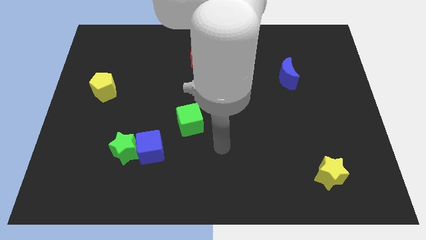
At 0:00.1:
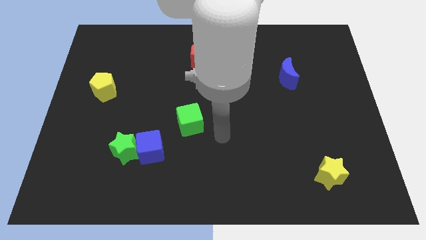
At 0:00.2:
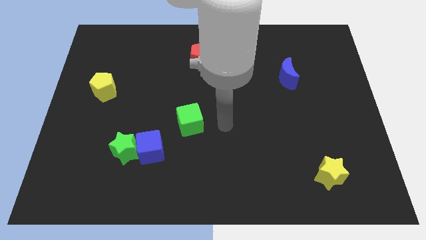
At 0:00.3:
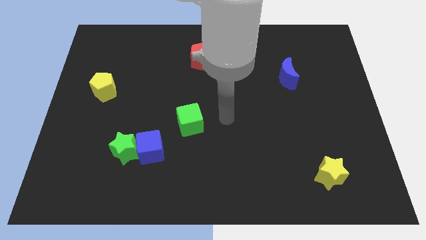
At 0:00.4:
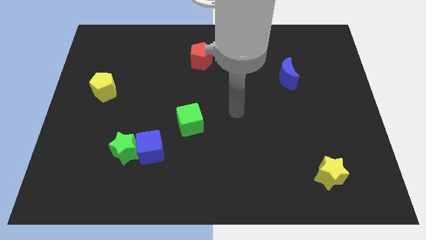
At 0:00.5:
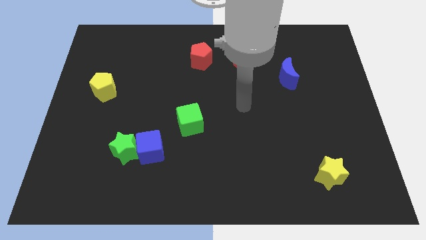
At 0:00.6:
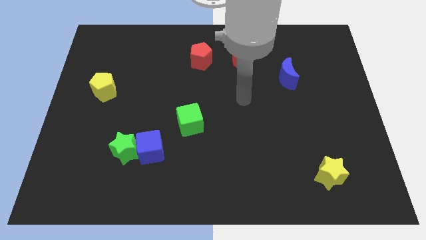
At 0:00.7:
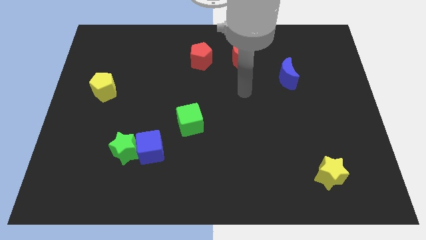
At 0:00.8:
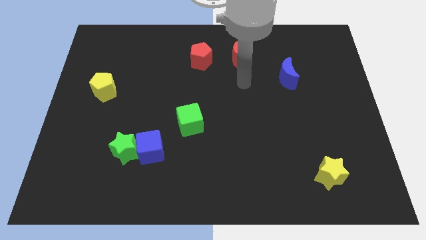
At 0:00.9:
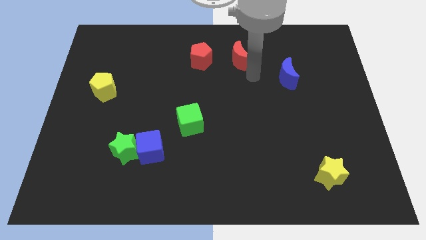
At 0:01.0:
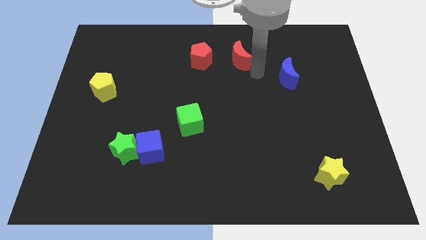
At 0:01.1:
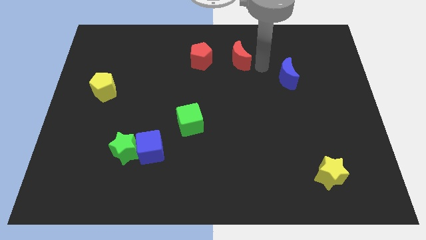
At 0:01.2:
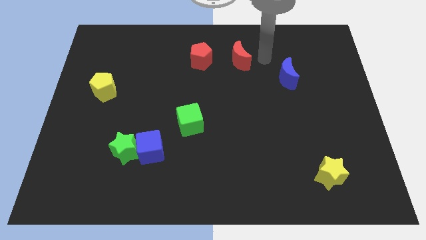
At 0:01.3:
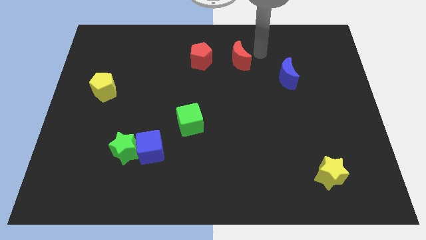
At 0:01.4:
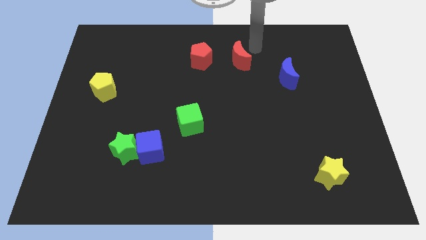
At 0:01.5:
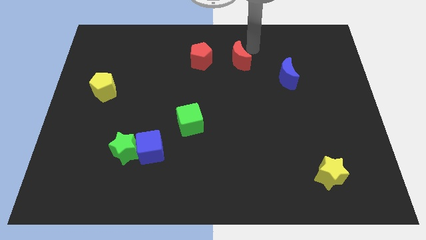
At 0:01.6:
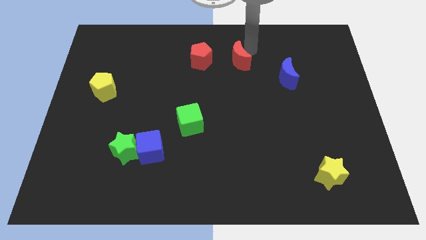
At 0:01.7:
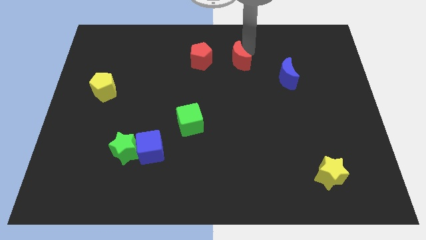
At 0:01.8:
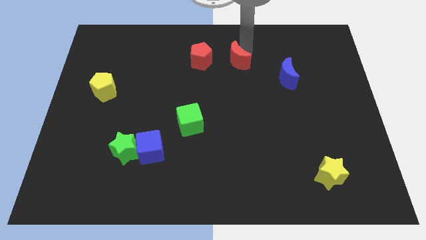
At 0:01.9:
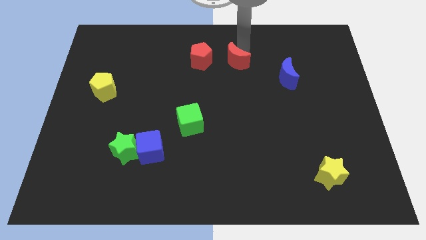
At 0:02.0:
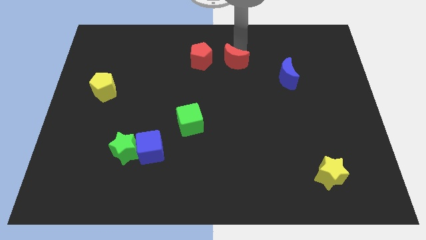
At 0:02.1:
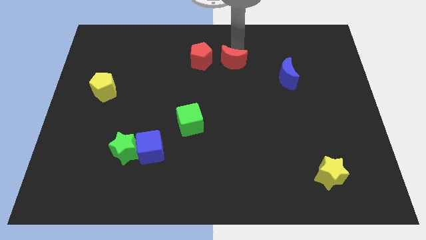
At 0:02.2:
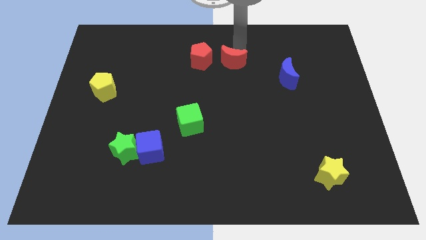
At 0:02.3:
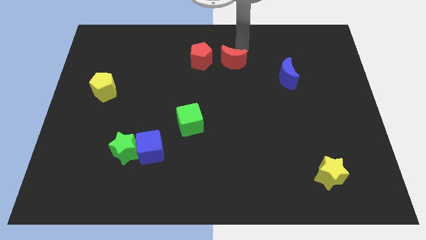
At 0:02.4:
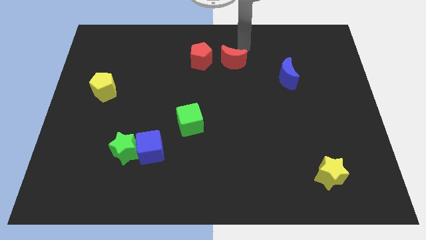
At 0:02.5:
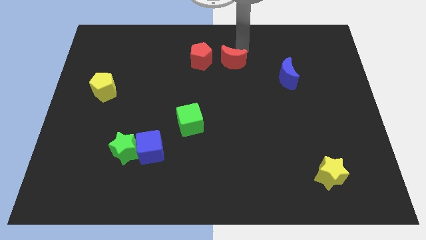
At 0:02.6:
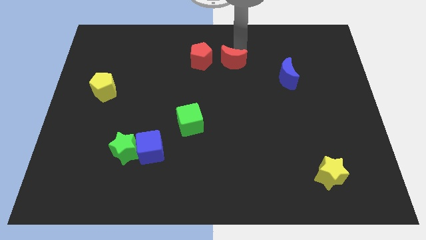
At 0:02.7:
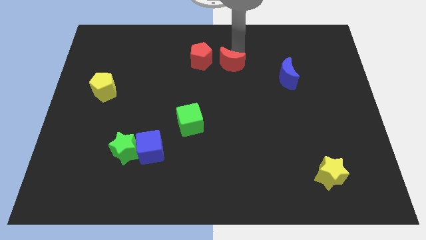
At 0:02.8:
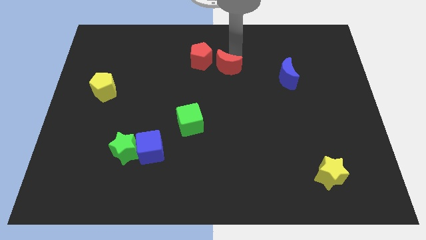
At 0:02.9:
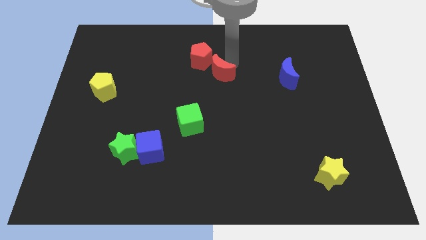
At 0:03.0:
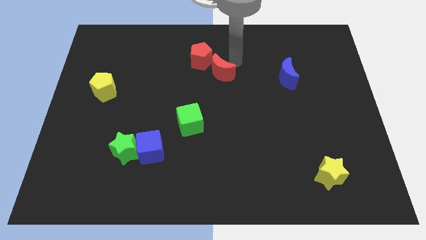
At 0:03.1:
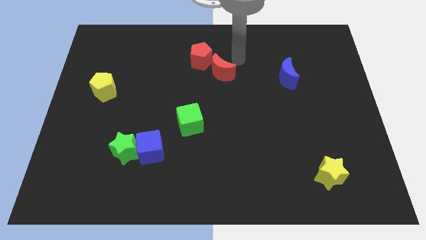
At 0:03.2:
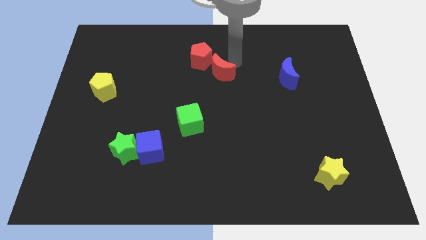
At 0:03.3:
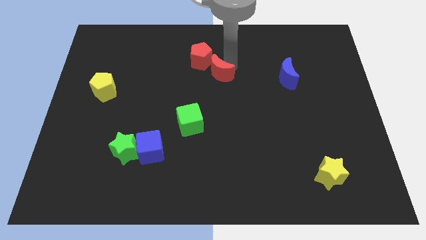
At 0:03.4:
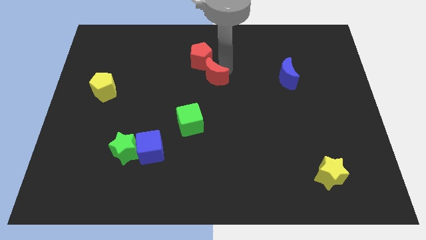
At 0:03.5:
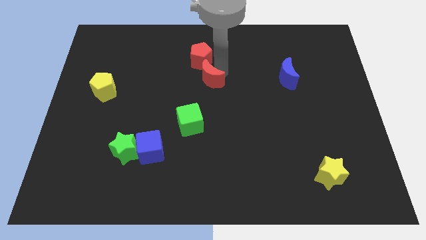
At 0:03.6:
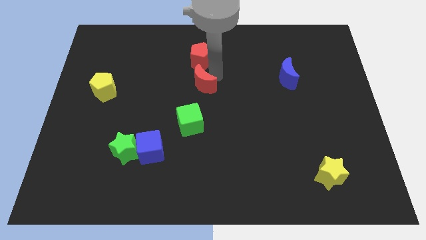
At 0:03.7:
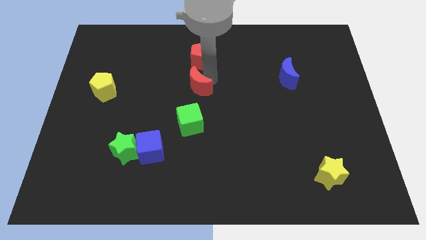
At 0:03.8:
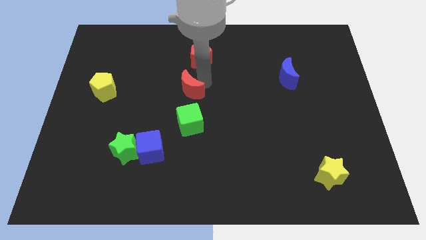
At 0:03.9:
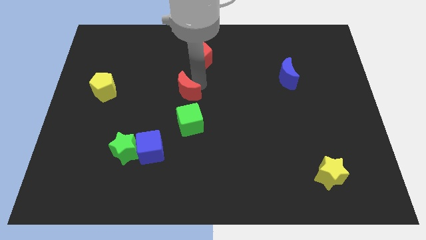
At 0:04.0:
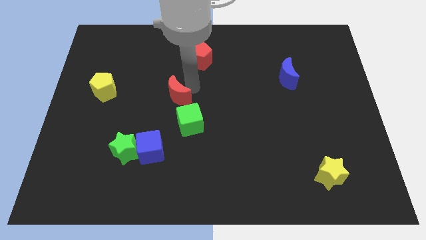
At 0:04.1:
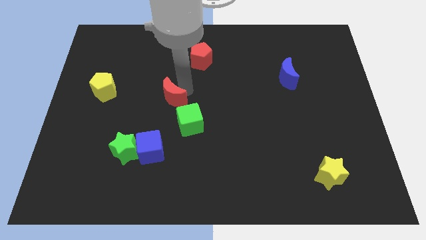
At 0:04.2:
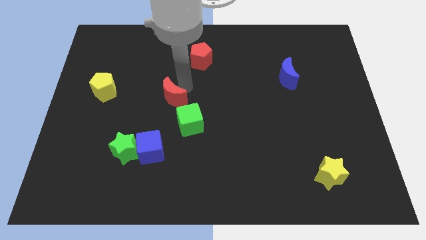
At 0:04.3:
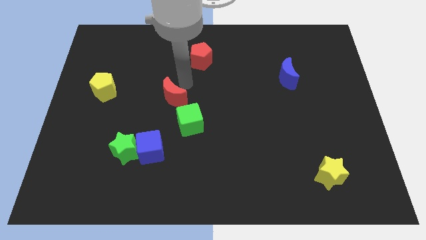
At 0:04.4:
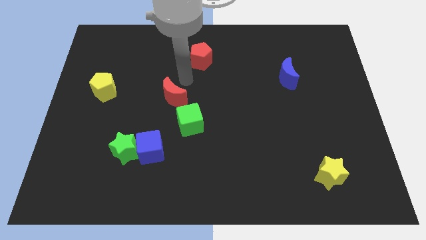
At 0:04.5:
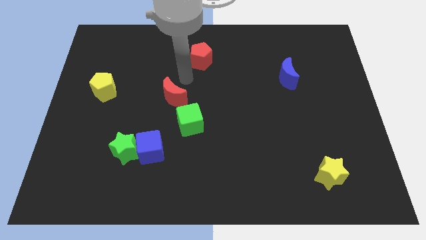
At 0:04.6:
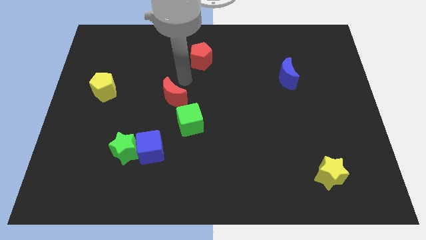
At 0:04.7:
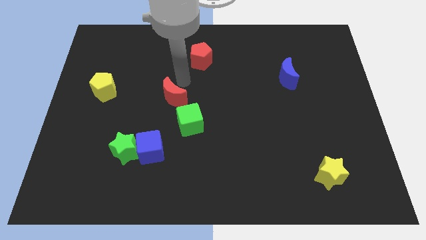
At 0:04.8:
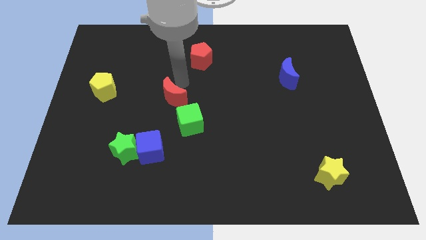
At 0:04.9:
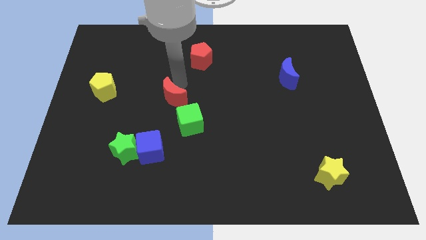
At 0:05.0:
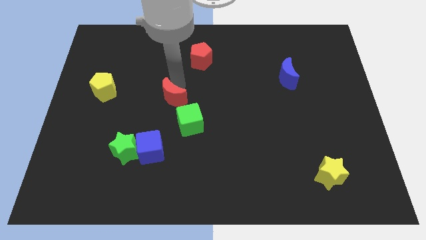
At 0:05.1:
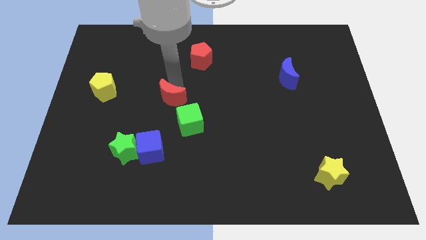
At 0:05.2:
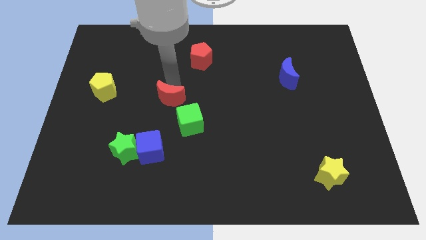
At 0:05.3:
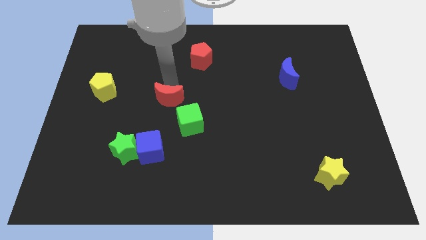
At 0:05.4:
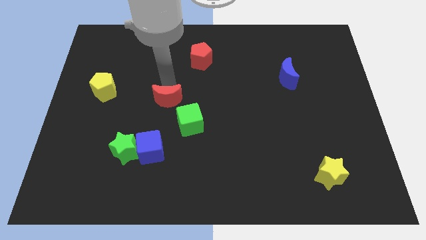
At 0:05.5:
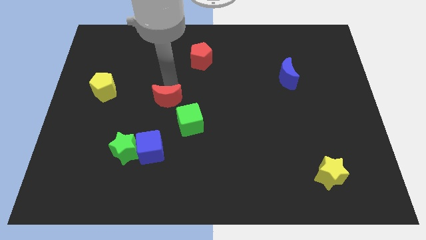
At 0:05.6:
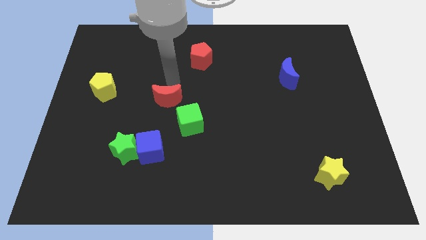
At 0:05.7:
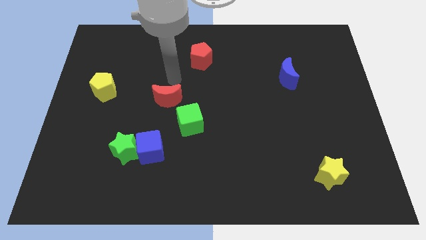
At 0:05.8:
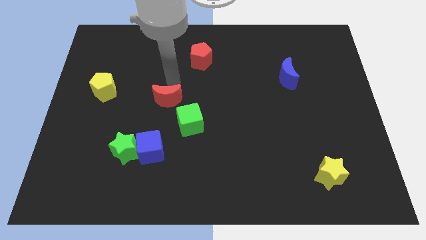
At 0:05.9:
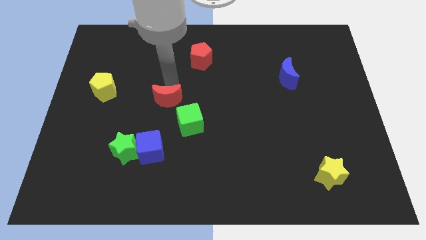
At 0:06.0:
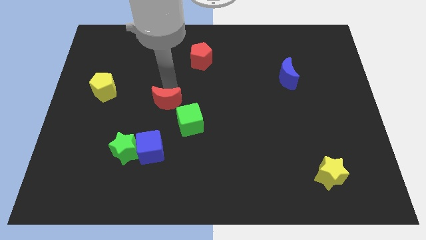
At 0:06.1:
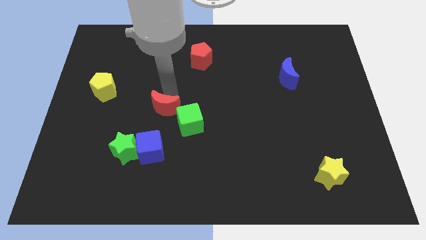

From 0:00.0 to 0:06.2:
move the red moon left of the green cube

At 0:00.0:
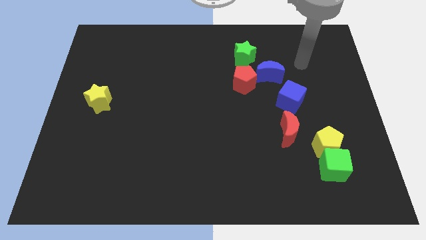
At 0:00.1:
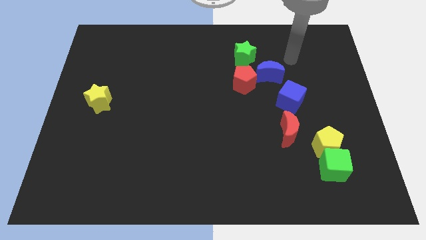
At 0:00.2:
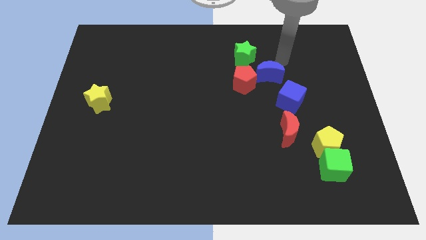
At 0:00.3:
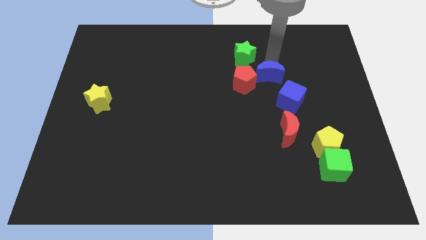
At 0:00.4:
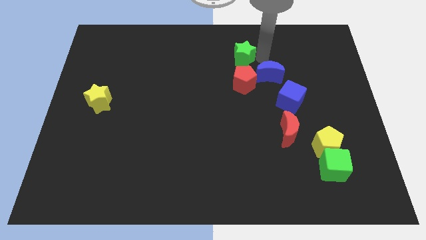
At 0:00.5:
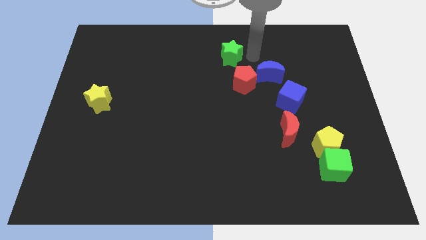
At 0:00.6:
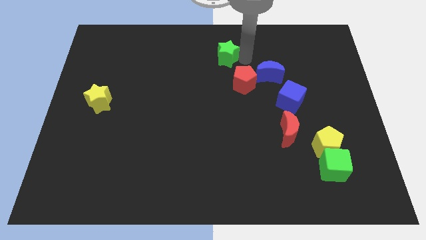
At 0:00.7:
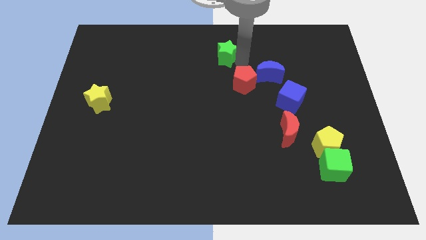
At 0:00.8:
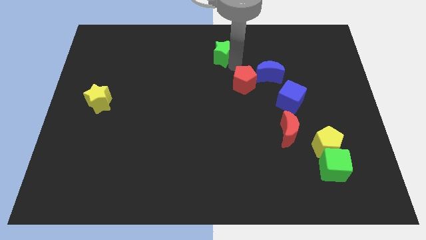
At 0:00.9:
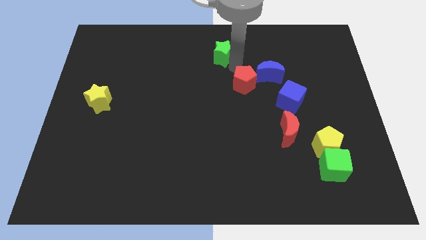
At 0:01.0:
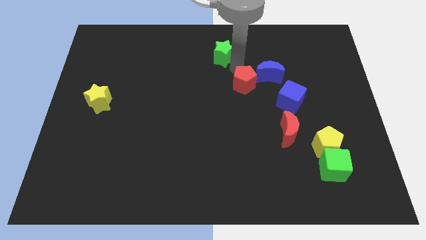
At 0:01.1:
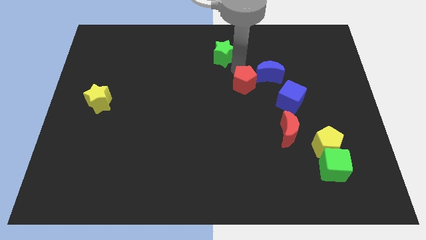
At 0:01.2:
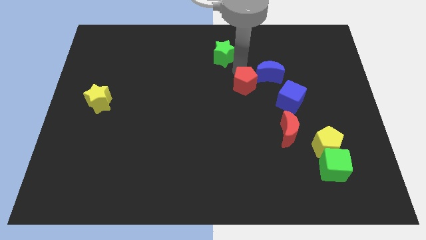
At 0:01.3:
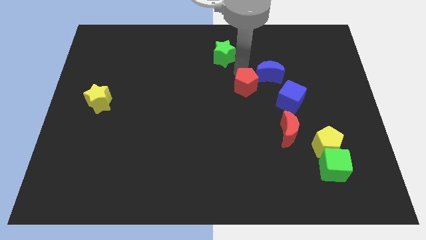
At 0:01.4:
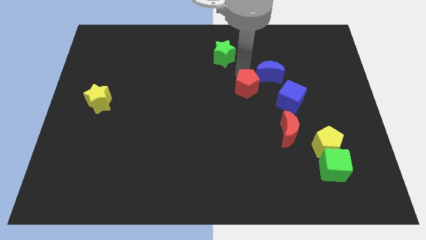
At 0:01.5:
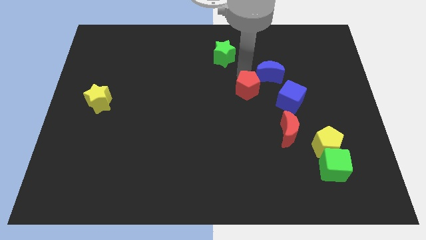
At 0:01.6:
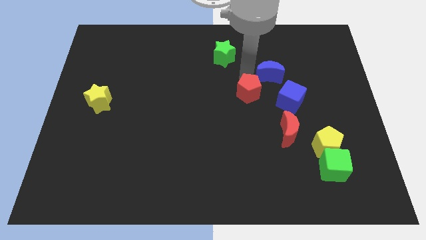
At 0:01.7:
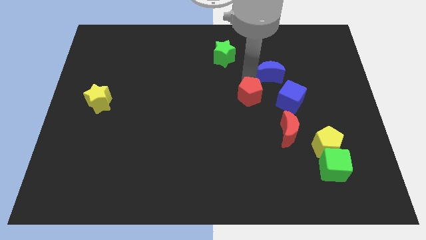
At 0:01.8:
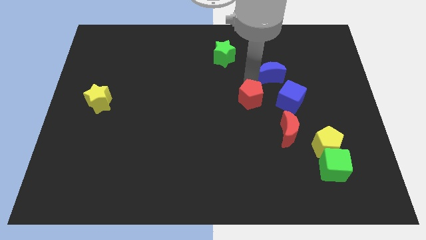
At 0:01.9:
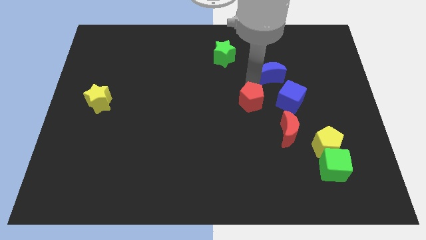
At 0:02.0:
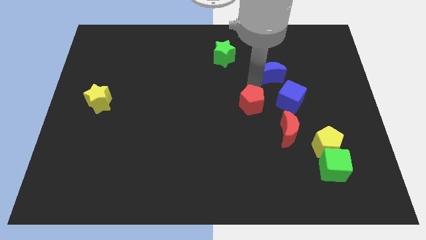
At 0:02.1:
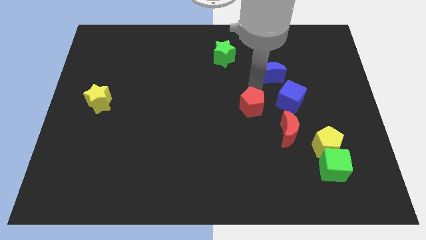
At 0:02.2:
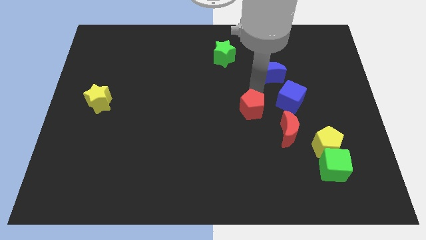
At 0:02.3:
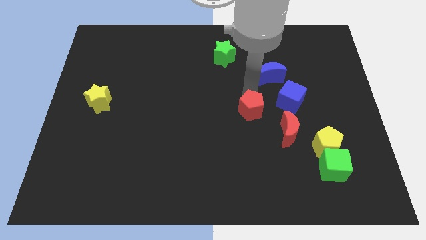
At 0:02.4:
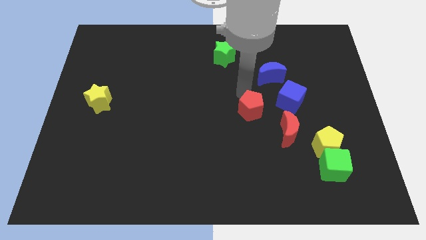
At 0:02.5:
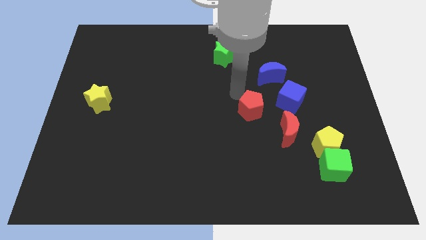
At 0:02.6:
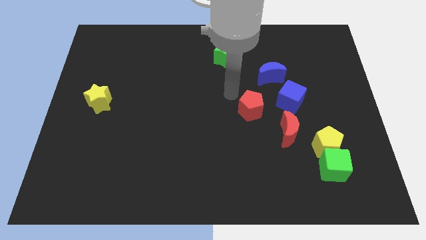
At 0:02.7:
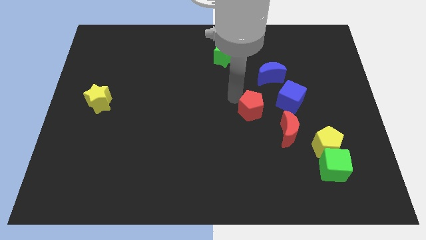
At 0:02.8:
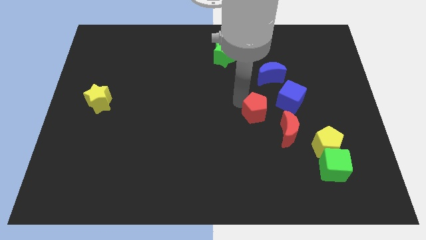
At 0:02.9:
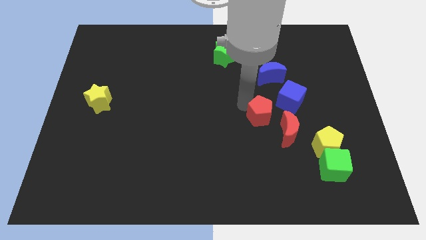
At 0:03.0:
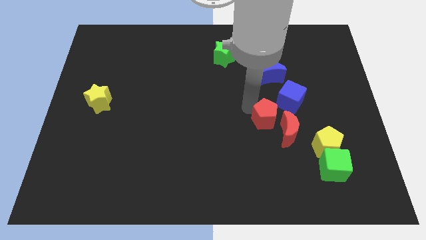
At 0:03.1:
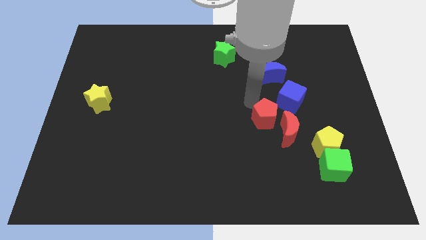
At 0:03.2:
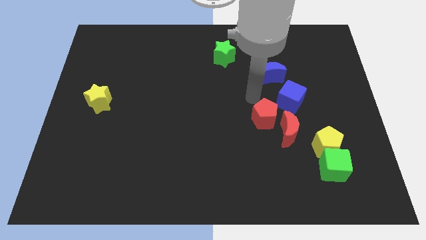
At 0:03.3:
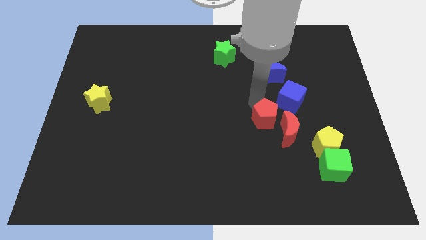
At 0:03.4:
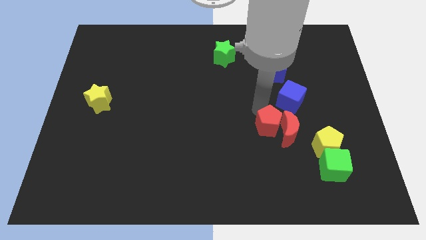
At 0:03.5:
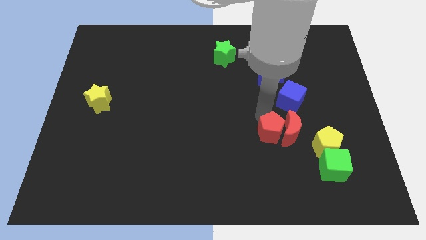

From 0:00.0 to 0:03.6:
slide the red pentagon to the left side of the yellow pentagon
